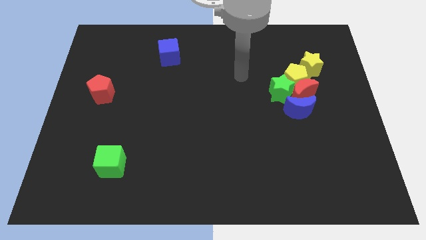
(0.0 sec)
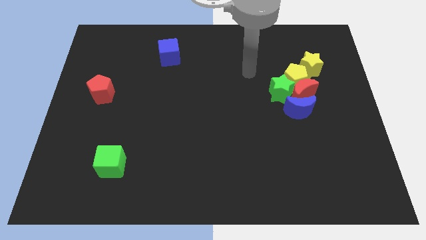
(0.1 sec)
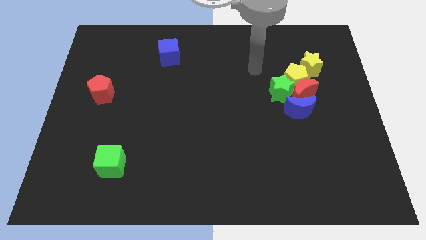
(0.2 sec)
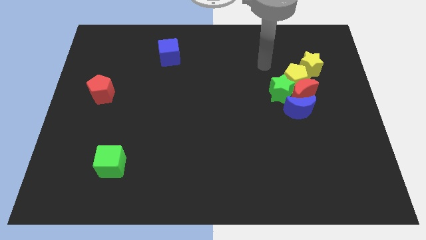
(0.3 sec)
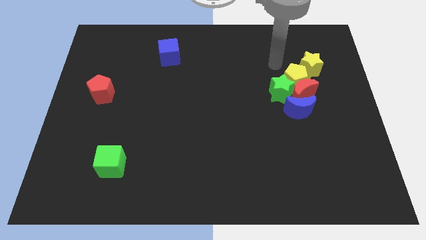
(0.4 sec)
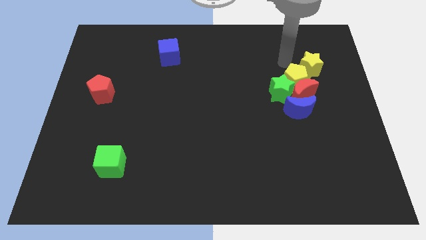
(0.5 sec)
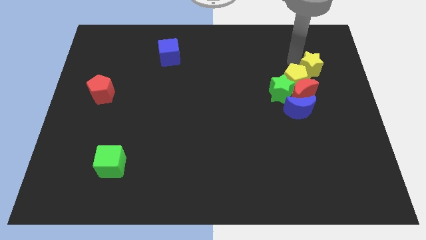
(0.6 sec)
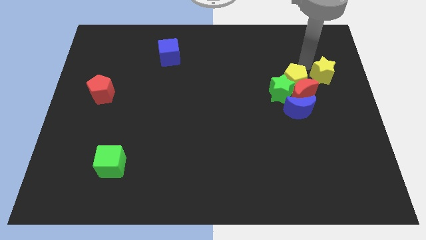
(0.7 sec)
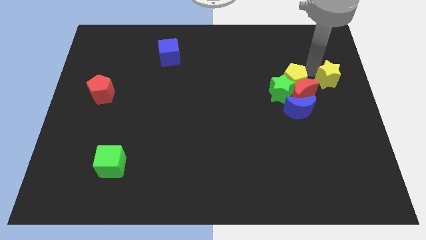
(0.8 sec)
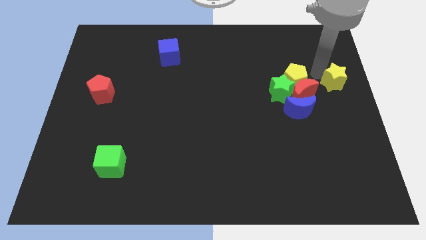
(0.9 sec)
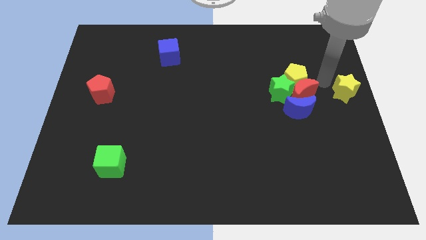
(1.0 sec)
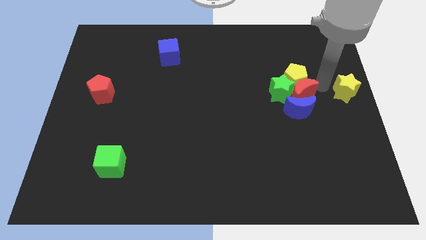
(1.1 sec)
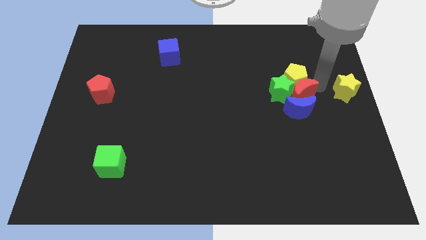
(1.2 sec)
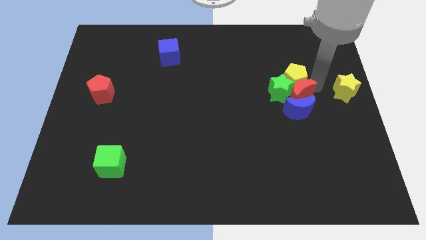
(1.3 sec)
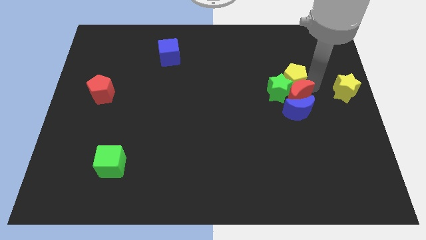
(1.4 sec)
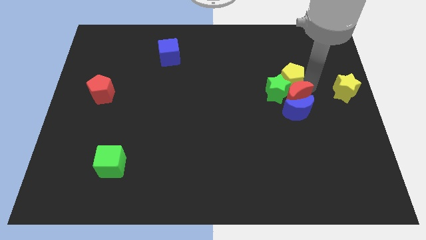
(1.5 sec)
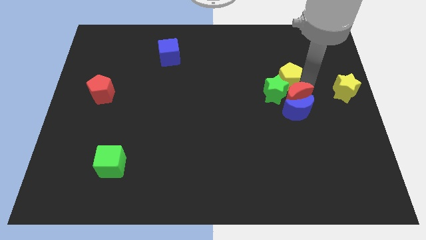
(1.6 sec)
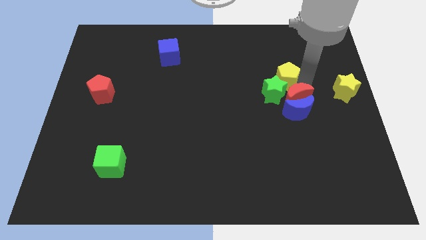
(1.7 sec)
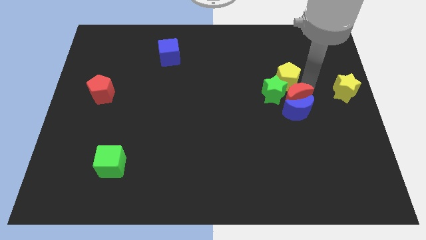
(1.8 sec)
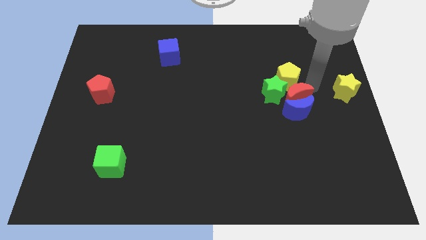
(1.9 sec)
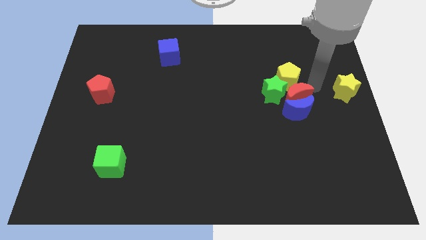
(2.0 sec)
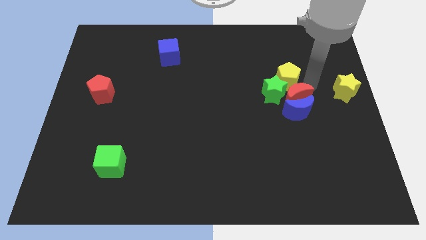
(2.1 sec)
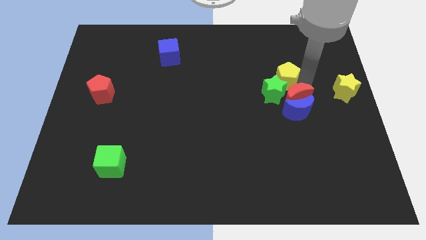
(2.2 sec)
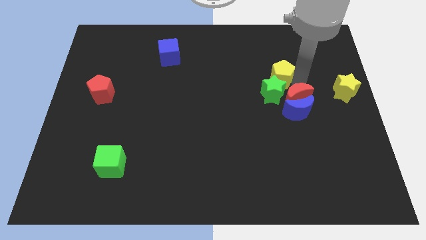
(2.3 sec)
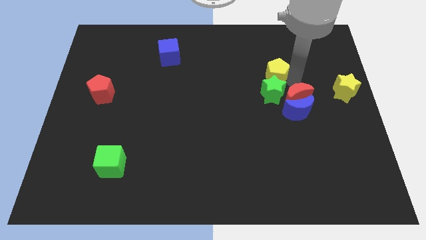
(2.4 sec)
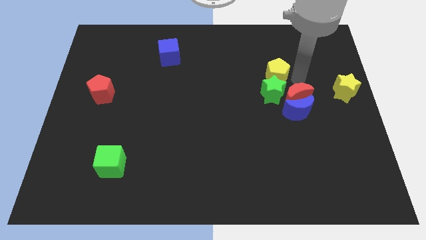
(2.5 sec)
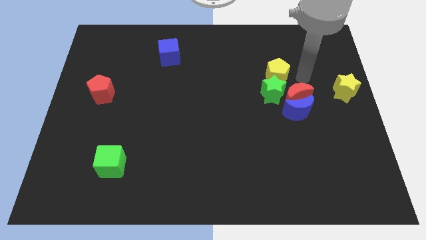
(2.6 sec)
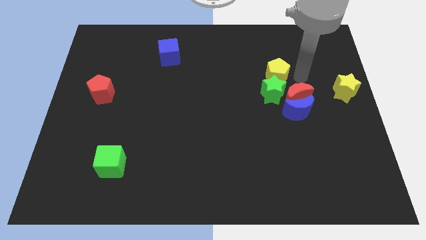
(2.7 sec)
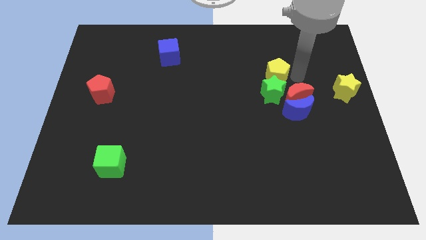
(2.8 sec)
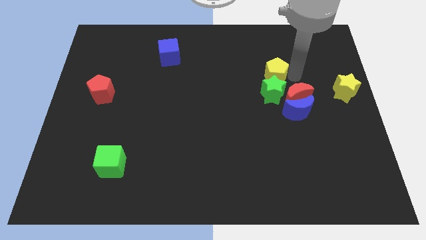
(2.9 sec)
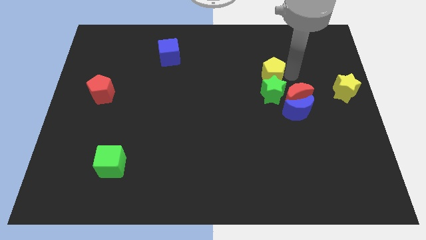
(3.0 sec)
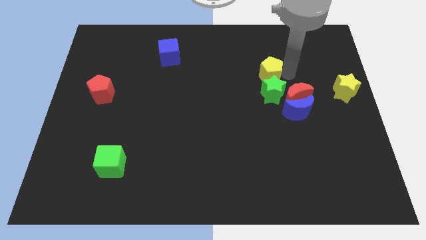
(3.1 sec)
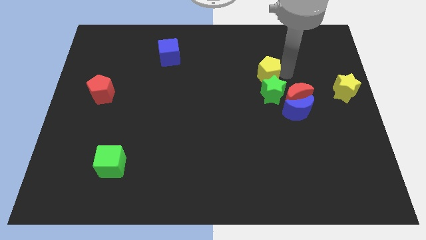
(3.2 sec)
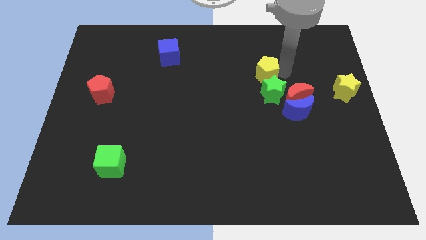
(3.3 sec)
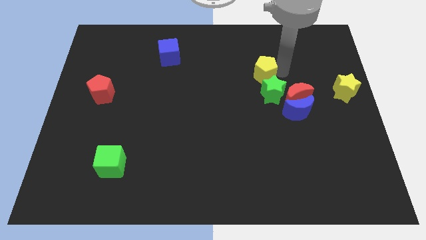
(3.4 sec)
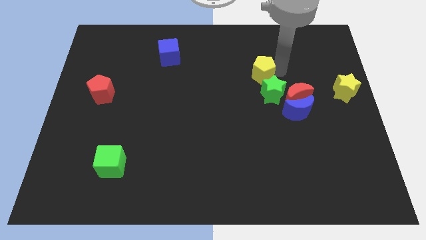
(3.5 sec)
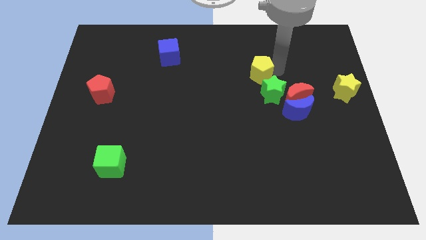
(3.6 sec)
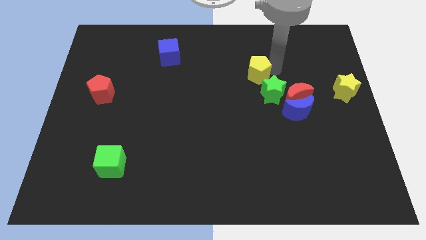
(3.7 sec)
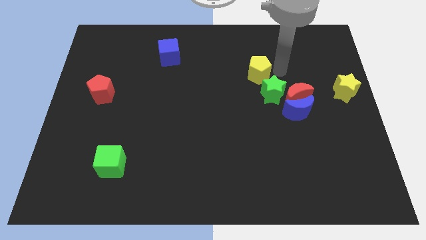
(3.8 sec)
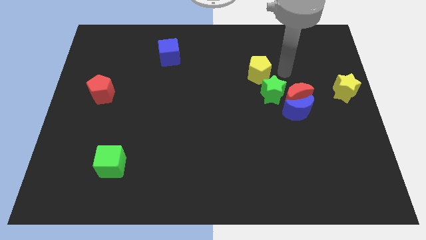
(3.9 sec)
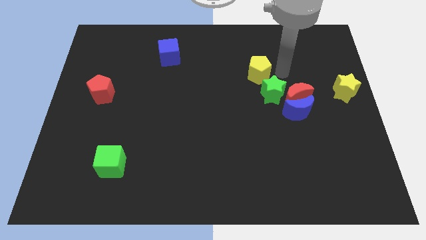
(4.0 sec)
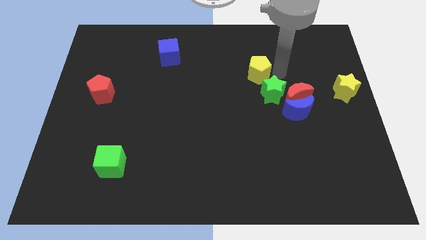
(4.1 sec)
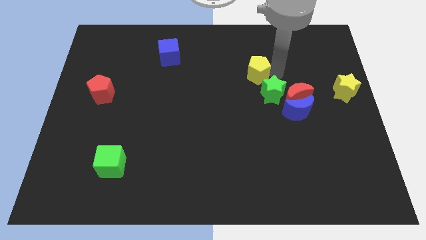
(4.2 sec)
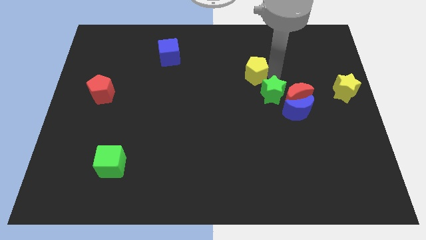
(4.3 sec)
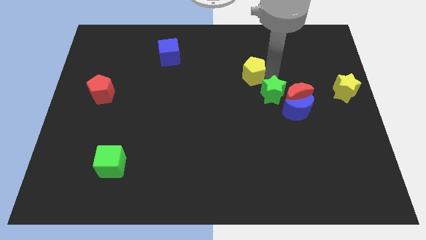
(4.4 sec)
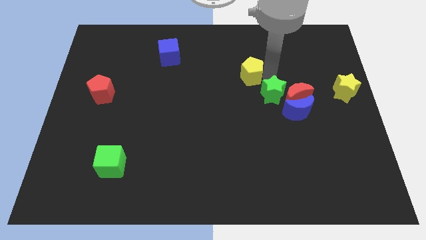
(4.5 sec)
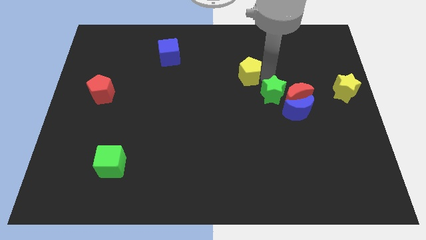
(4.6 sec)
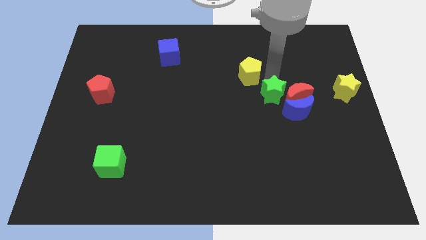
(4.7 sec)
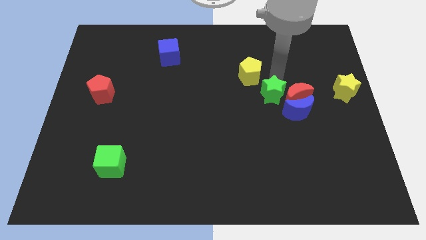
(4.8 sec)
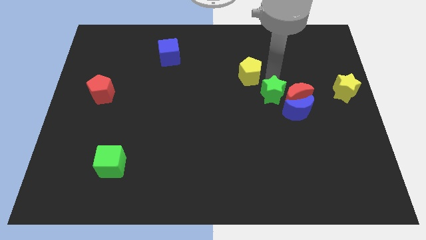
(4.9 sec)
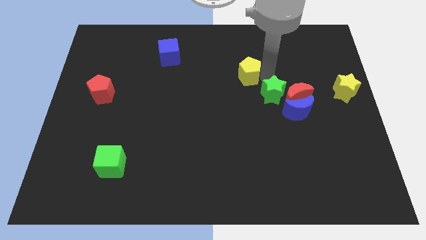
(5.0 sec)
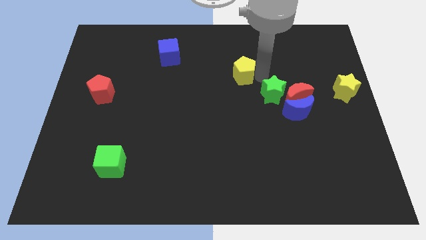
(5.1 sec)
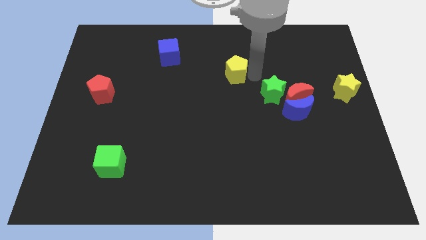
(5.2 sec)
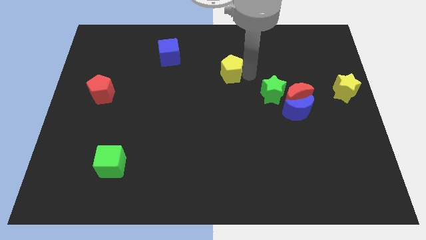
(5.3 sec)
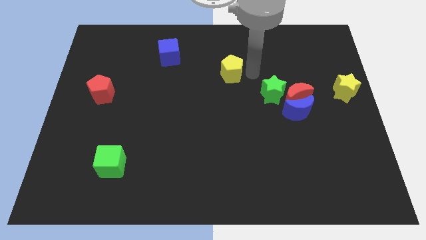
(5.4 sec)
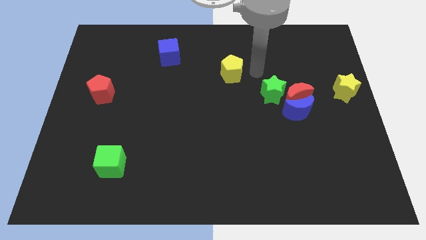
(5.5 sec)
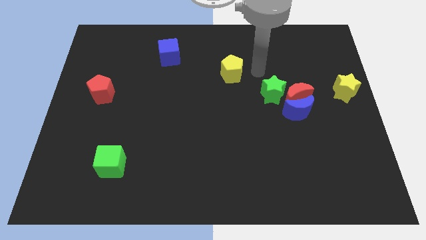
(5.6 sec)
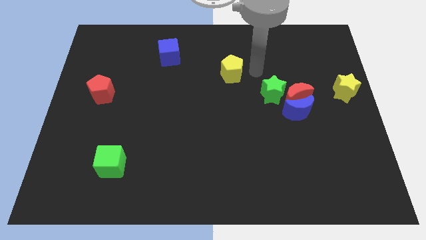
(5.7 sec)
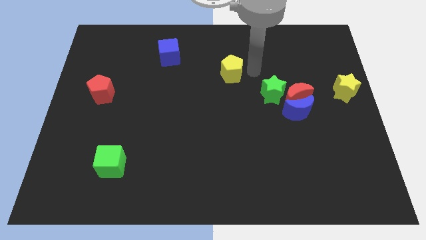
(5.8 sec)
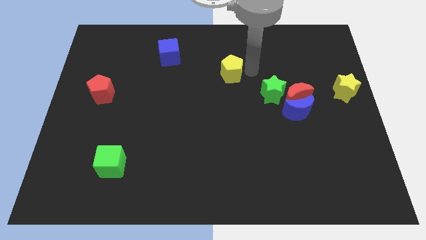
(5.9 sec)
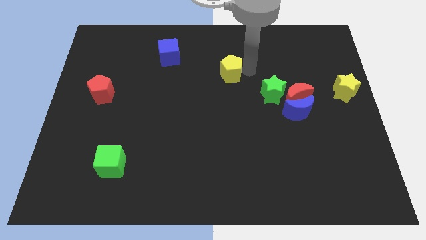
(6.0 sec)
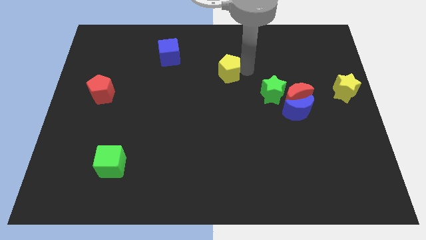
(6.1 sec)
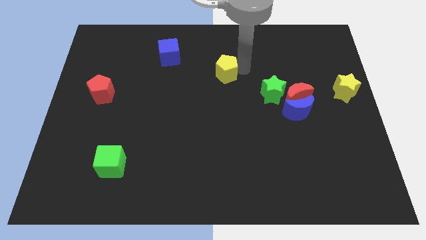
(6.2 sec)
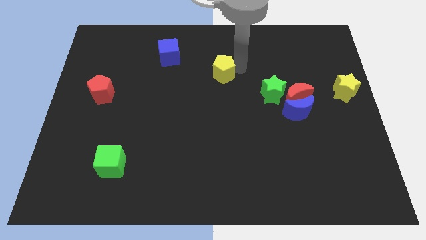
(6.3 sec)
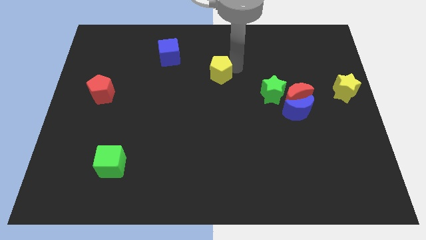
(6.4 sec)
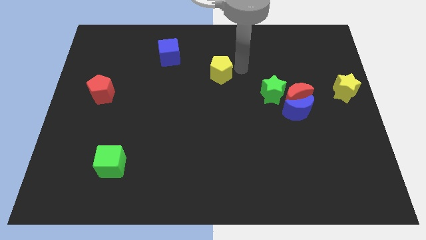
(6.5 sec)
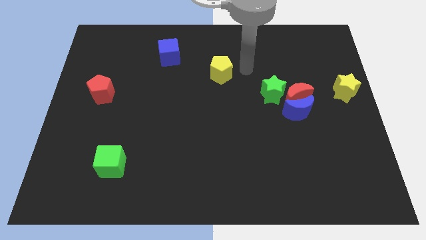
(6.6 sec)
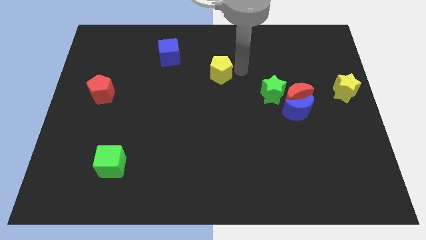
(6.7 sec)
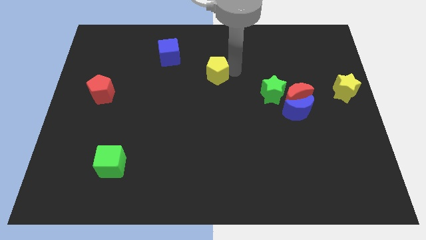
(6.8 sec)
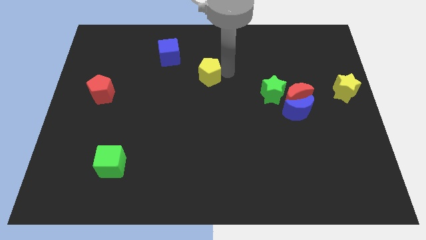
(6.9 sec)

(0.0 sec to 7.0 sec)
slide the yellow pentagon to the left

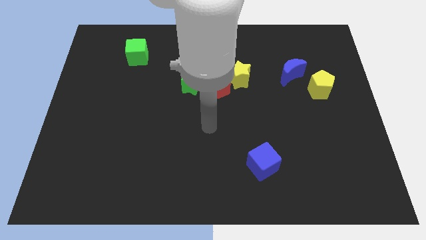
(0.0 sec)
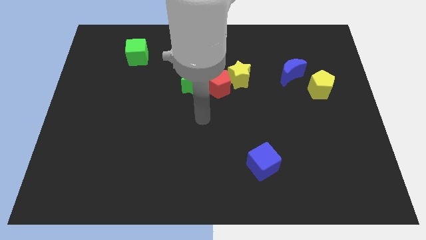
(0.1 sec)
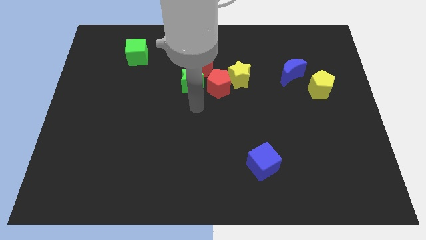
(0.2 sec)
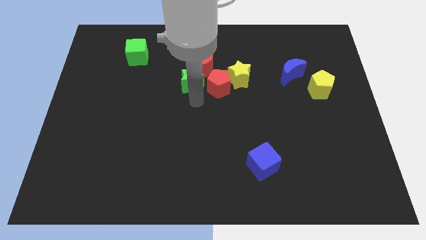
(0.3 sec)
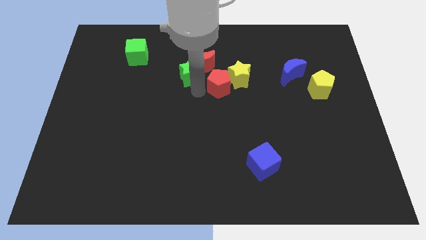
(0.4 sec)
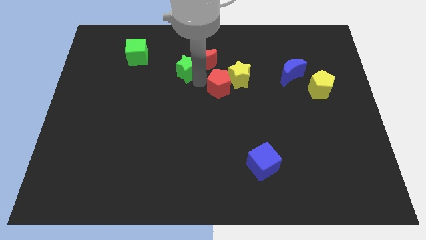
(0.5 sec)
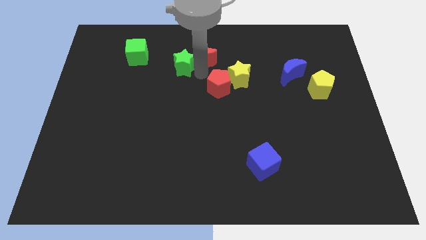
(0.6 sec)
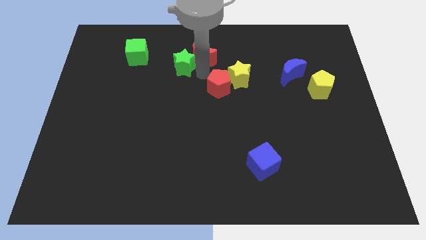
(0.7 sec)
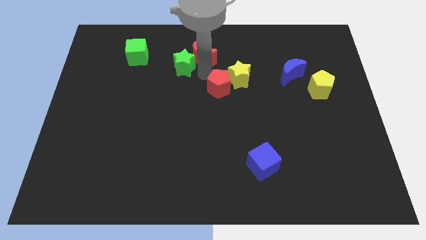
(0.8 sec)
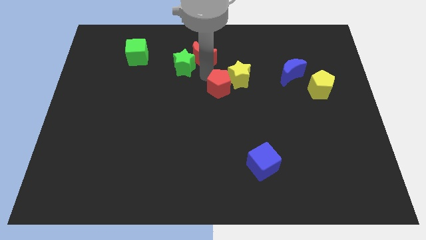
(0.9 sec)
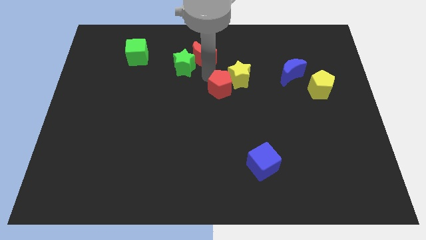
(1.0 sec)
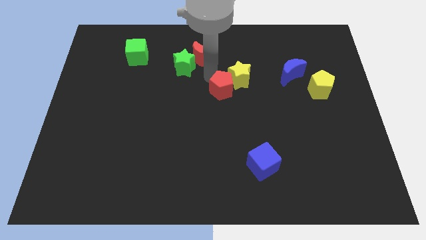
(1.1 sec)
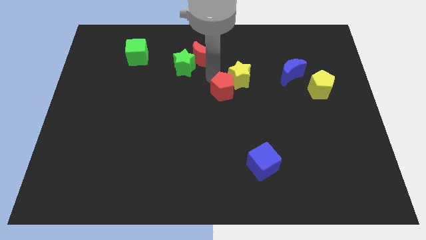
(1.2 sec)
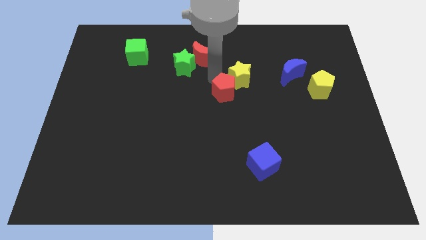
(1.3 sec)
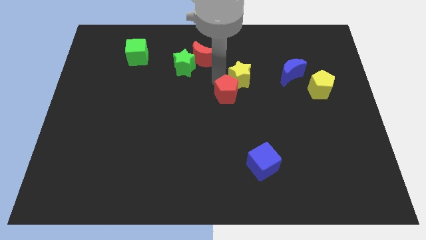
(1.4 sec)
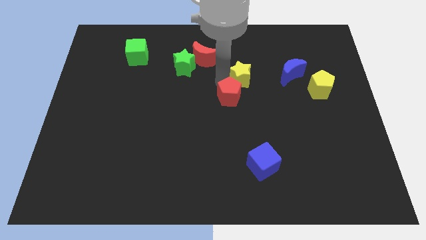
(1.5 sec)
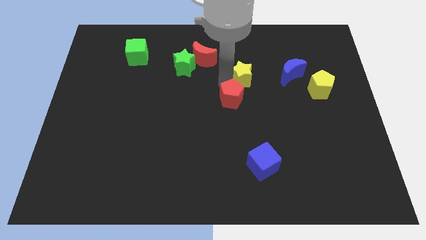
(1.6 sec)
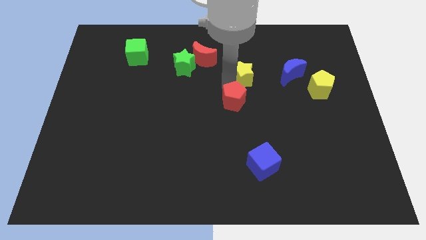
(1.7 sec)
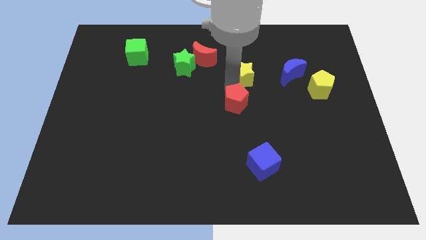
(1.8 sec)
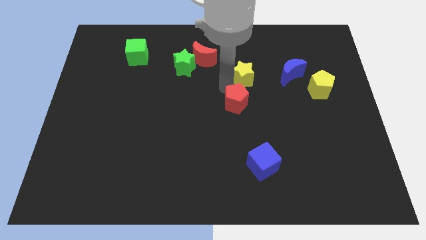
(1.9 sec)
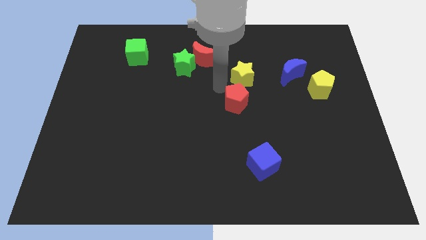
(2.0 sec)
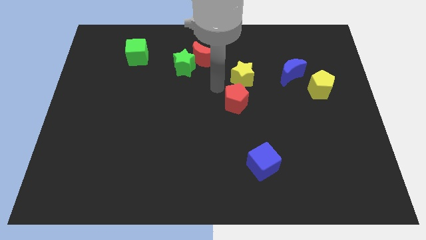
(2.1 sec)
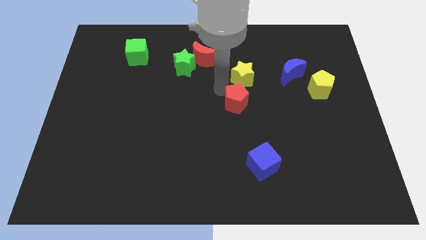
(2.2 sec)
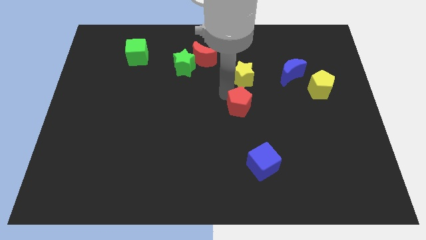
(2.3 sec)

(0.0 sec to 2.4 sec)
push the red pentagon somewhat diagonally downwards and right
